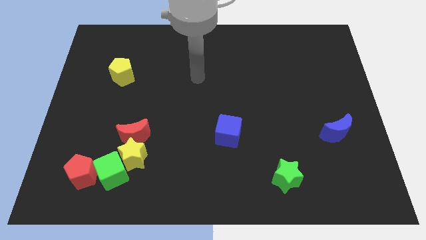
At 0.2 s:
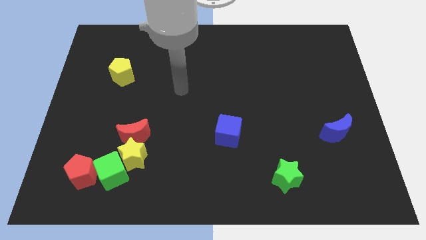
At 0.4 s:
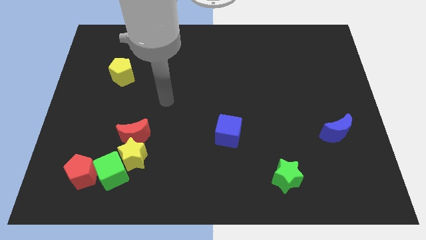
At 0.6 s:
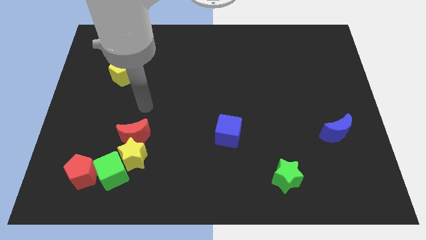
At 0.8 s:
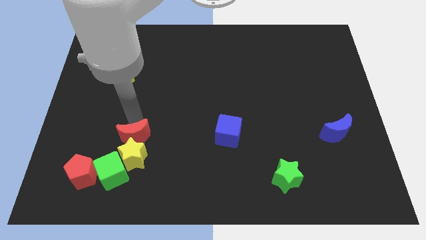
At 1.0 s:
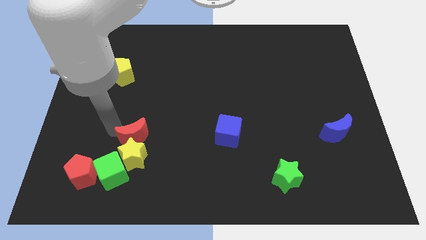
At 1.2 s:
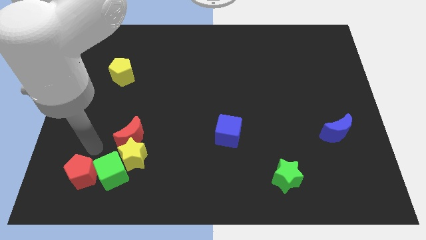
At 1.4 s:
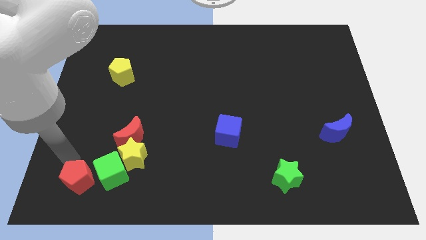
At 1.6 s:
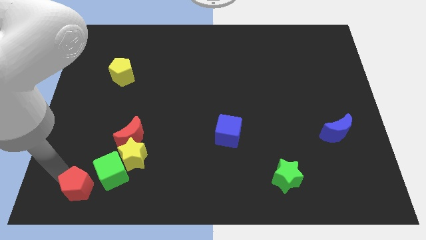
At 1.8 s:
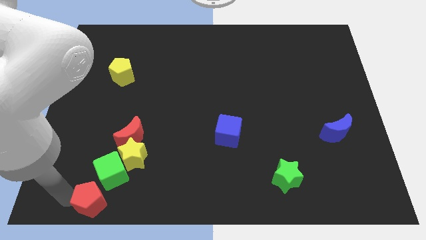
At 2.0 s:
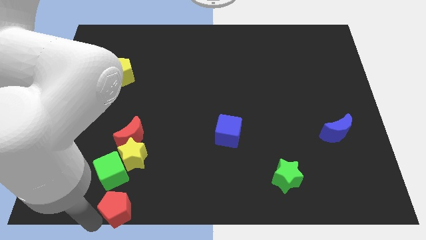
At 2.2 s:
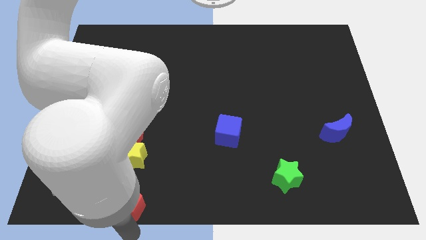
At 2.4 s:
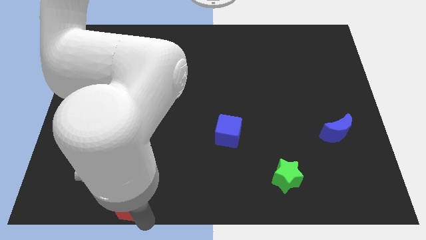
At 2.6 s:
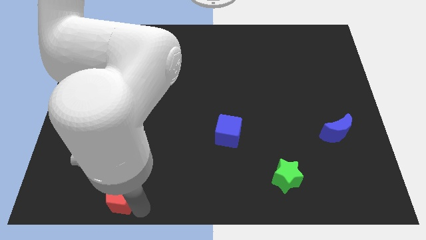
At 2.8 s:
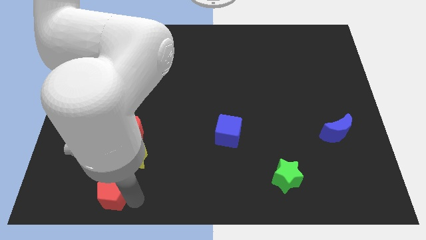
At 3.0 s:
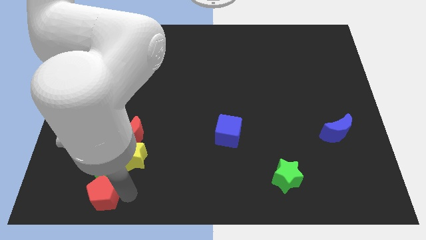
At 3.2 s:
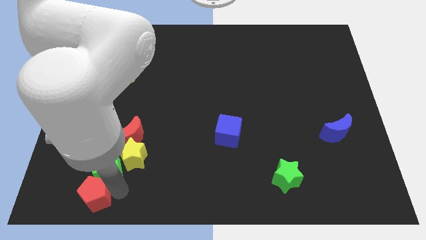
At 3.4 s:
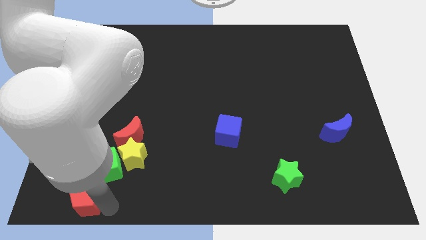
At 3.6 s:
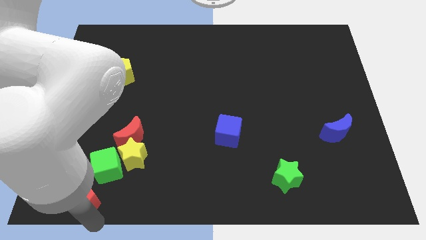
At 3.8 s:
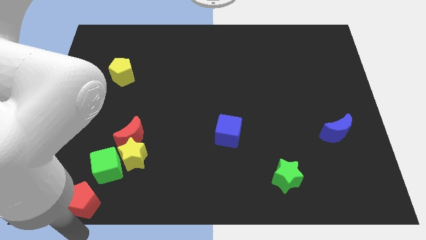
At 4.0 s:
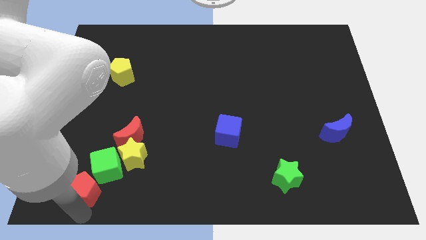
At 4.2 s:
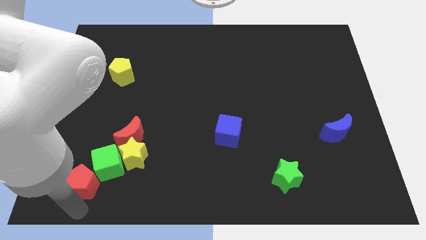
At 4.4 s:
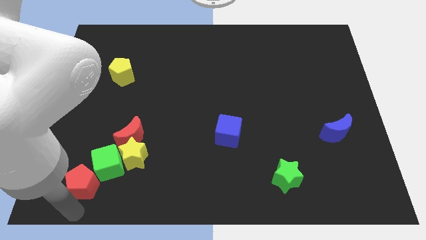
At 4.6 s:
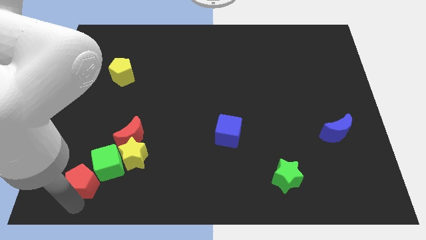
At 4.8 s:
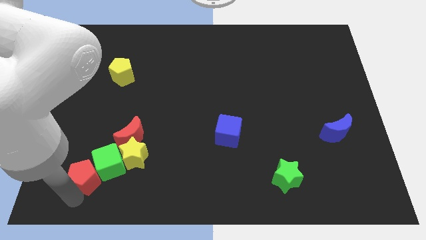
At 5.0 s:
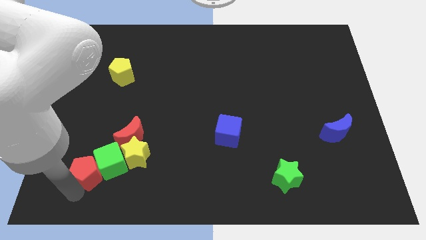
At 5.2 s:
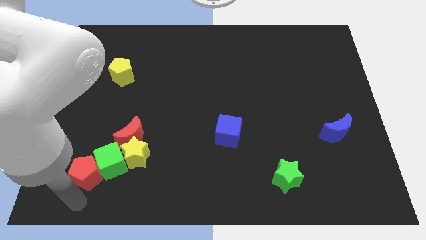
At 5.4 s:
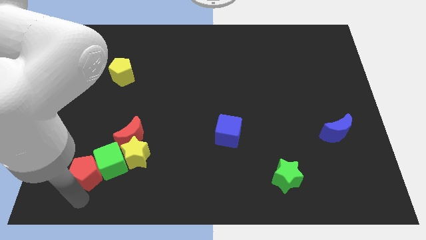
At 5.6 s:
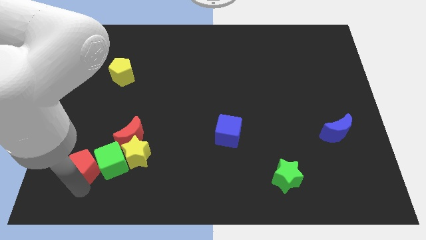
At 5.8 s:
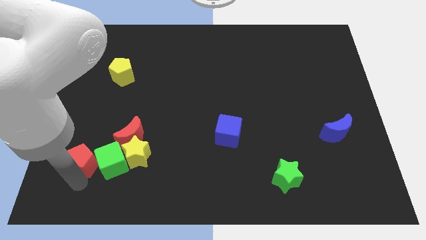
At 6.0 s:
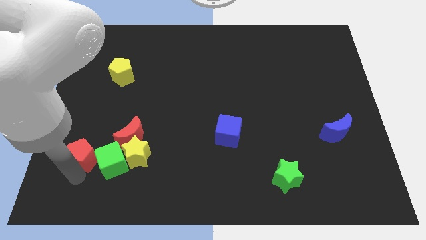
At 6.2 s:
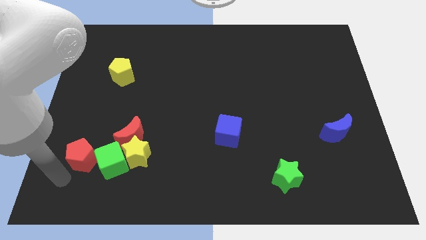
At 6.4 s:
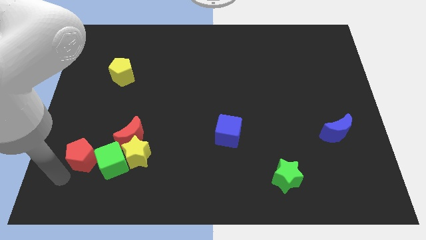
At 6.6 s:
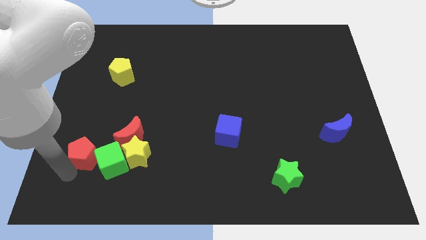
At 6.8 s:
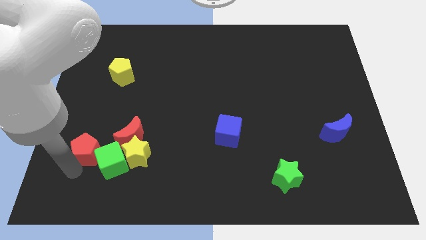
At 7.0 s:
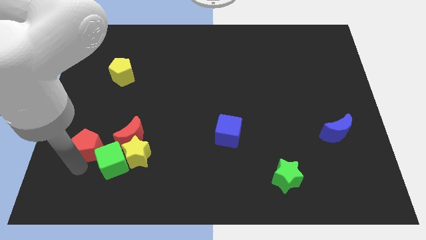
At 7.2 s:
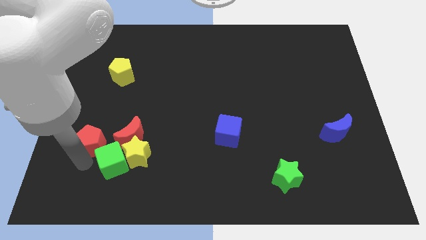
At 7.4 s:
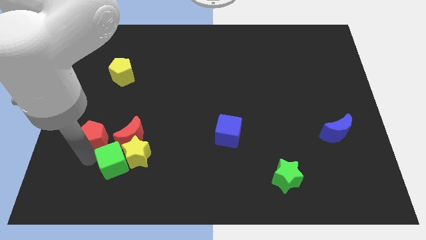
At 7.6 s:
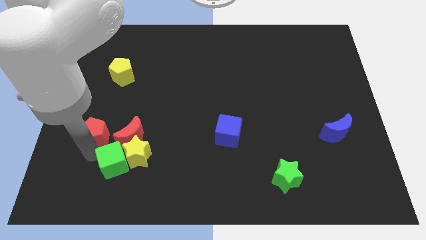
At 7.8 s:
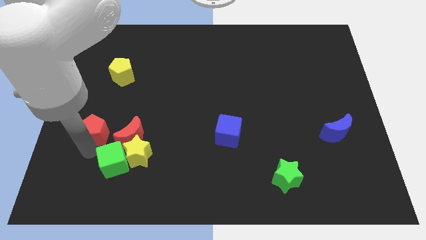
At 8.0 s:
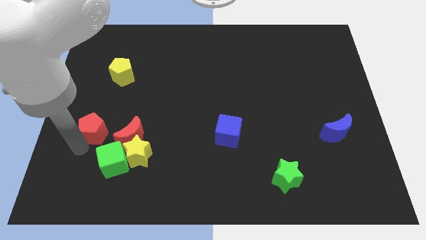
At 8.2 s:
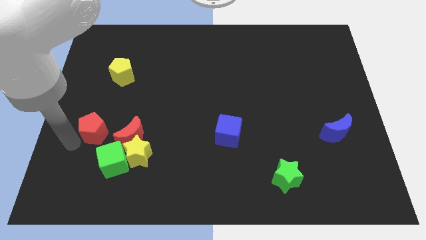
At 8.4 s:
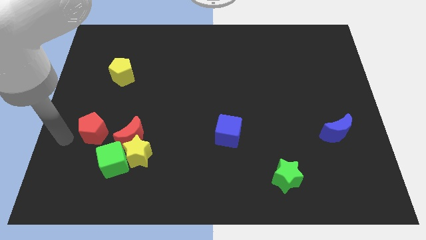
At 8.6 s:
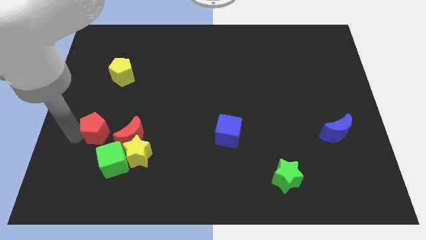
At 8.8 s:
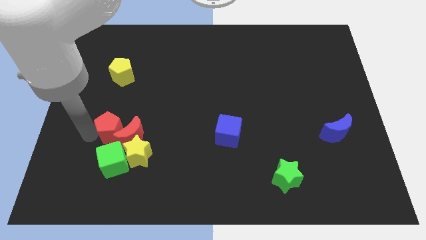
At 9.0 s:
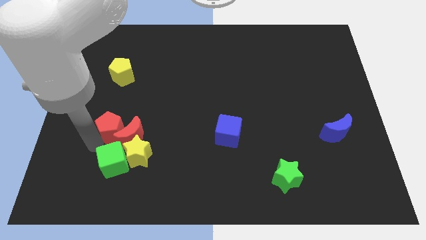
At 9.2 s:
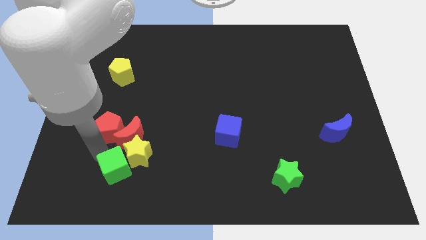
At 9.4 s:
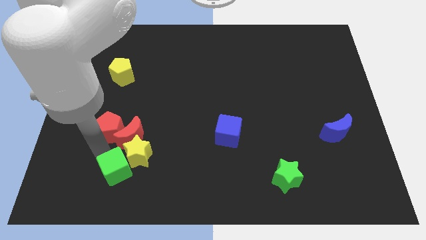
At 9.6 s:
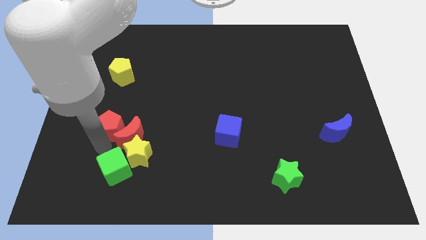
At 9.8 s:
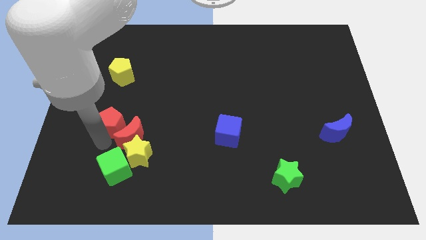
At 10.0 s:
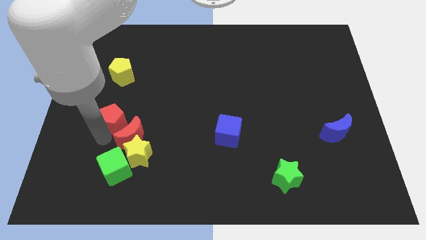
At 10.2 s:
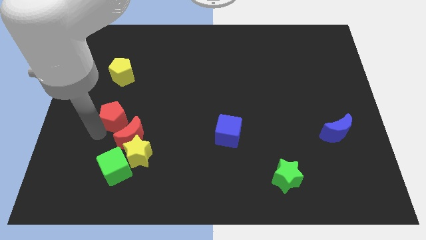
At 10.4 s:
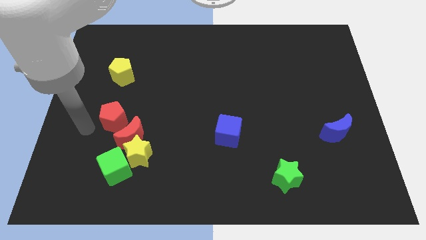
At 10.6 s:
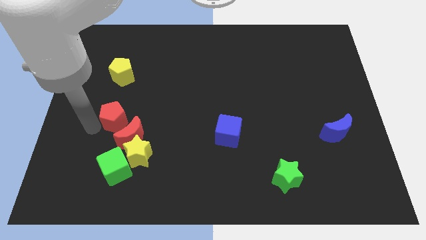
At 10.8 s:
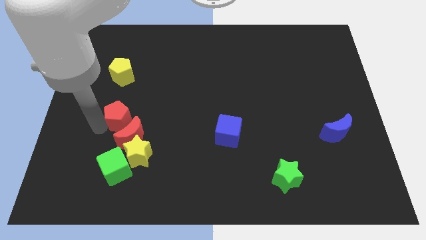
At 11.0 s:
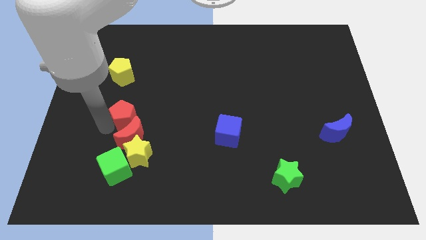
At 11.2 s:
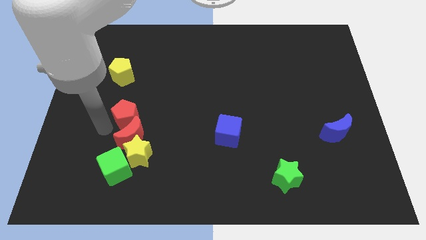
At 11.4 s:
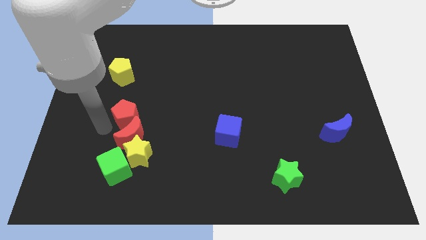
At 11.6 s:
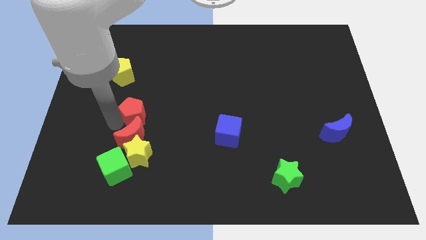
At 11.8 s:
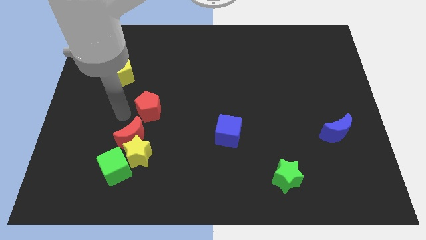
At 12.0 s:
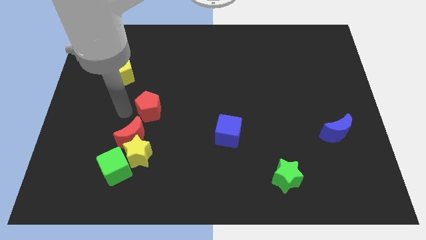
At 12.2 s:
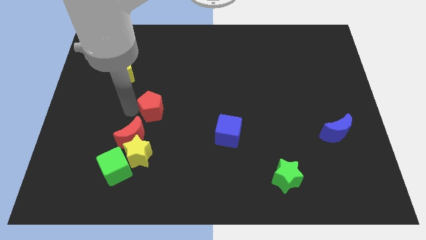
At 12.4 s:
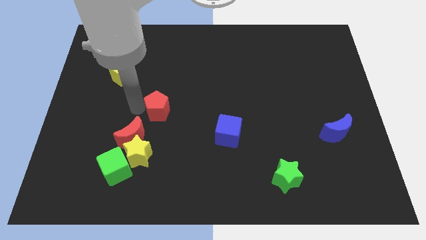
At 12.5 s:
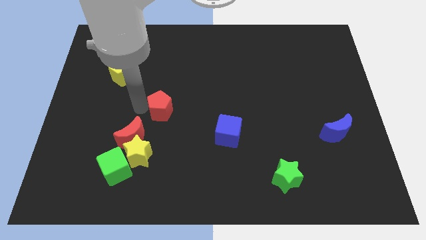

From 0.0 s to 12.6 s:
put the red pentagon to the center
